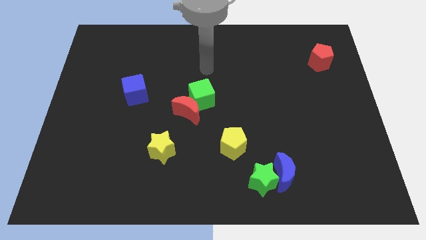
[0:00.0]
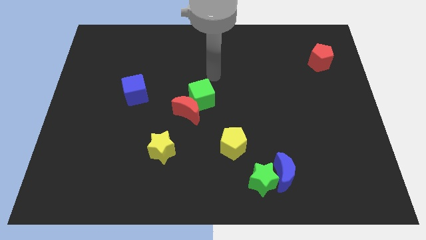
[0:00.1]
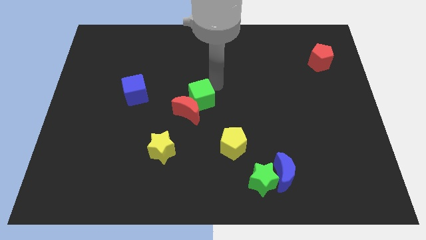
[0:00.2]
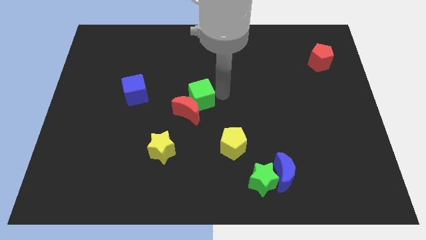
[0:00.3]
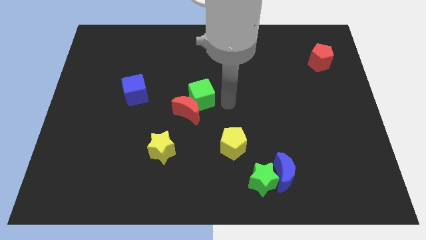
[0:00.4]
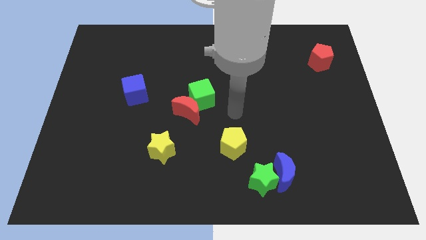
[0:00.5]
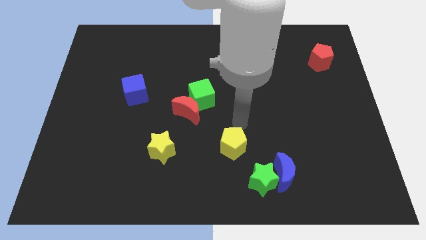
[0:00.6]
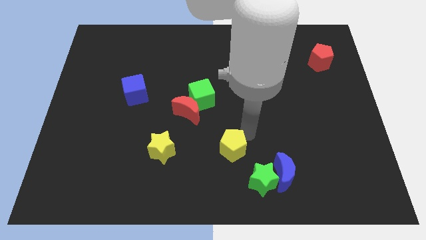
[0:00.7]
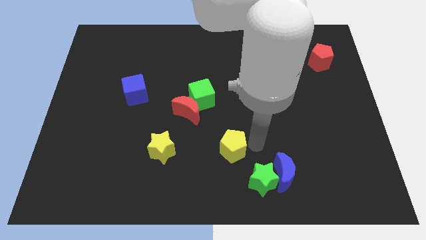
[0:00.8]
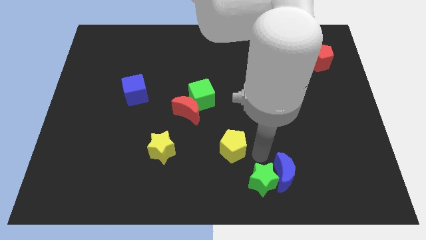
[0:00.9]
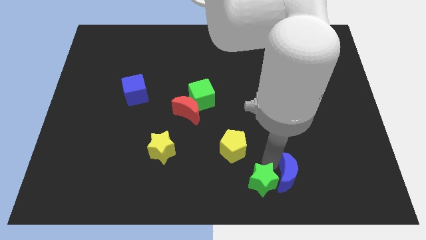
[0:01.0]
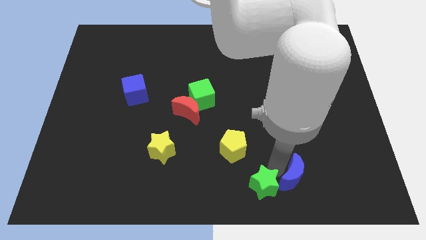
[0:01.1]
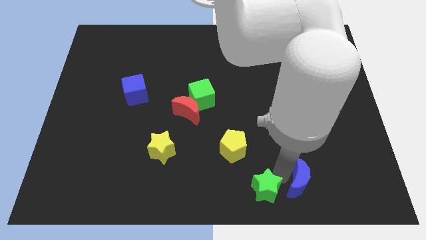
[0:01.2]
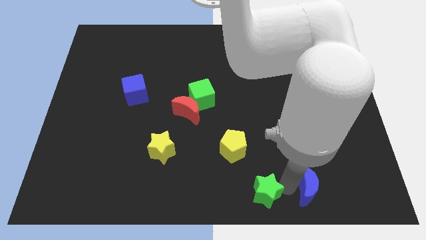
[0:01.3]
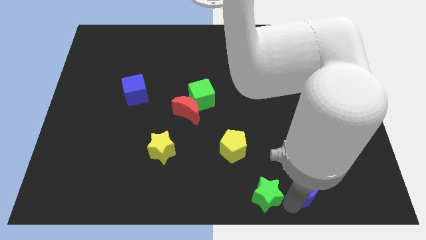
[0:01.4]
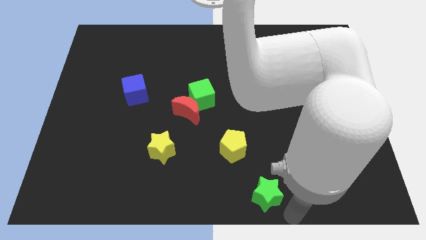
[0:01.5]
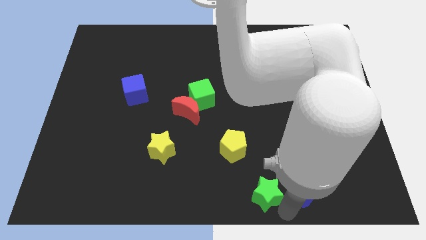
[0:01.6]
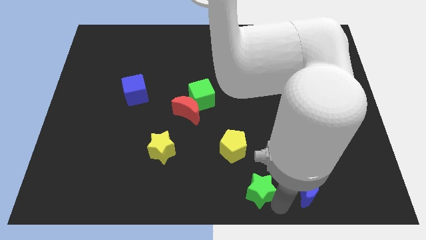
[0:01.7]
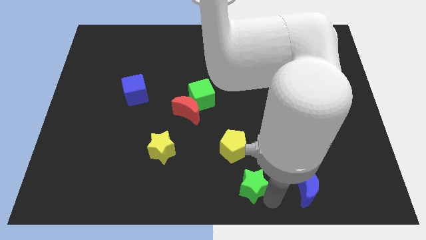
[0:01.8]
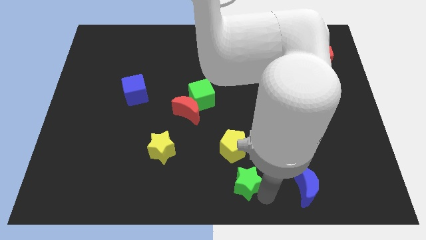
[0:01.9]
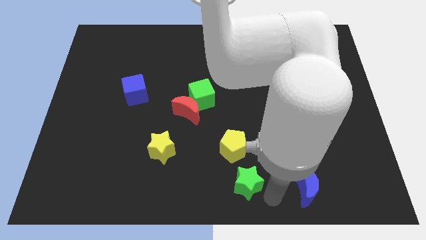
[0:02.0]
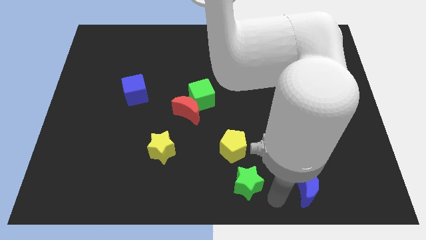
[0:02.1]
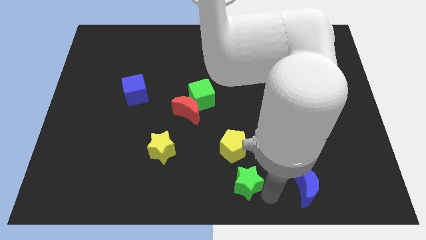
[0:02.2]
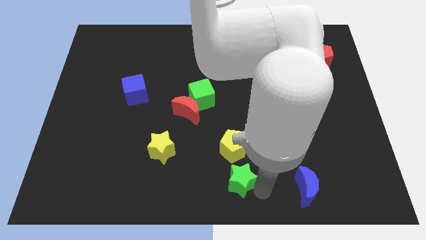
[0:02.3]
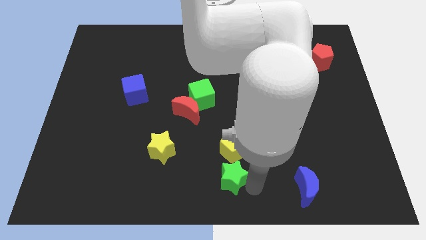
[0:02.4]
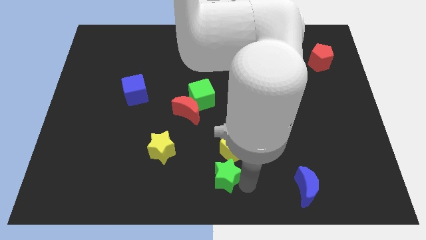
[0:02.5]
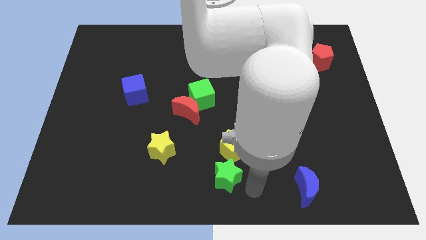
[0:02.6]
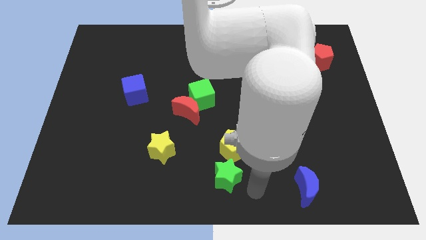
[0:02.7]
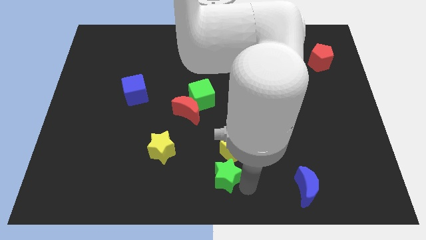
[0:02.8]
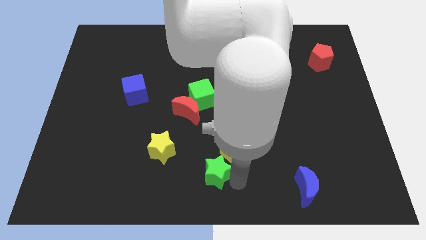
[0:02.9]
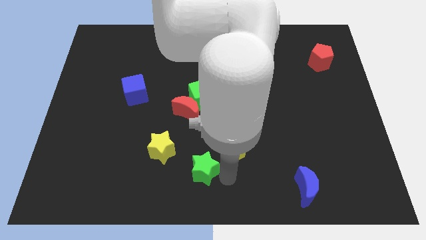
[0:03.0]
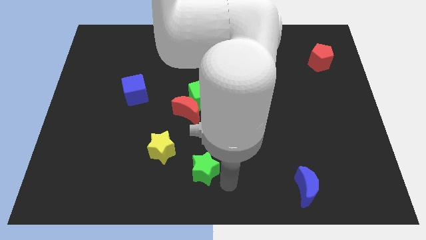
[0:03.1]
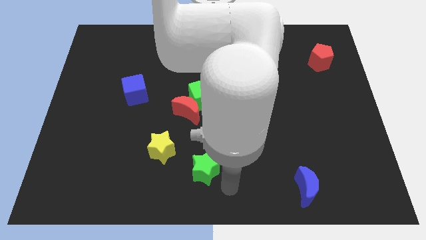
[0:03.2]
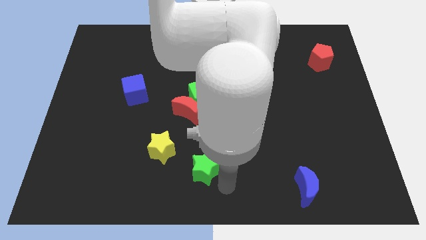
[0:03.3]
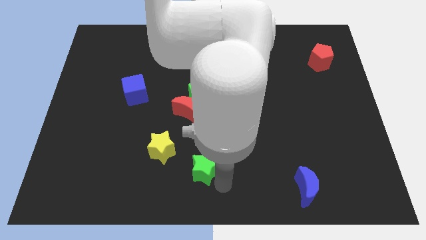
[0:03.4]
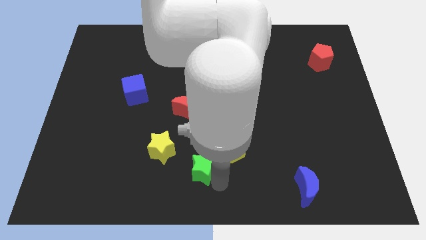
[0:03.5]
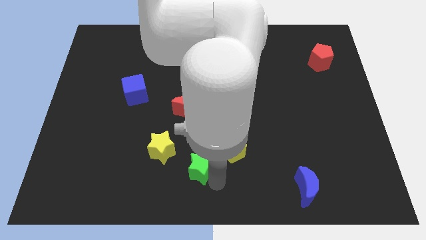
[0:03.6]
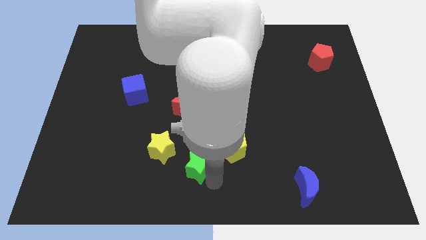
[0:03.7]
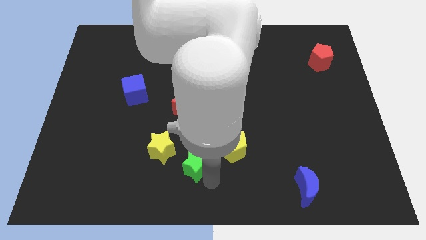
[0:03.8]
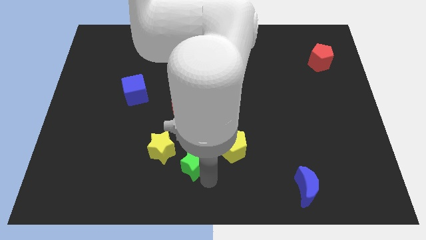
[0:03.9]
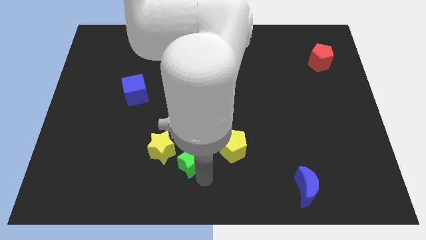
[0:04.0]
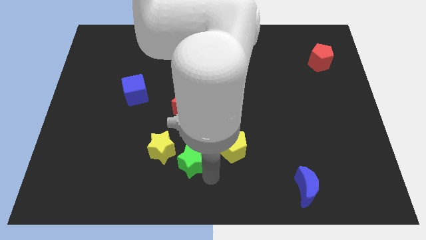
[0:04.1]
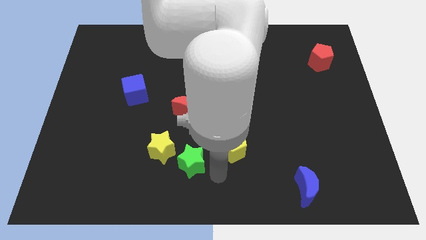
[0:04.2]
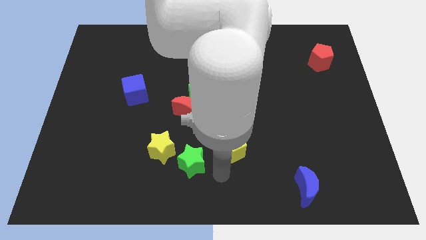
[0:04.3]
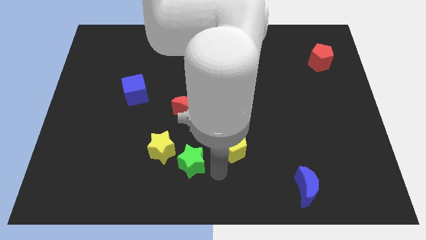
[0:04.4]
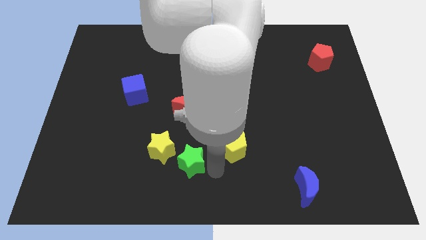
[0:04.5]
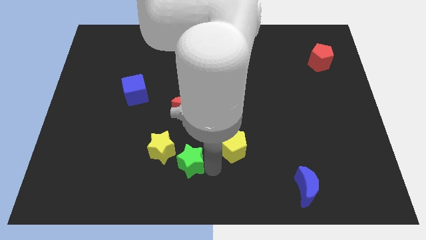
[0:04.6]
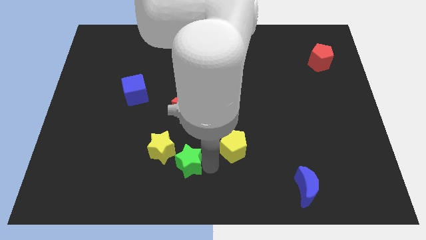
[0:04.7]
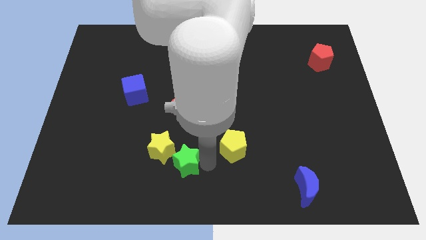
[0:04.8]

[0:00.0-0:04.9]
put the green star towards the yellow star

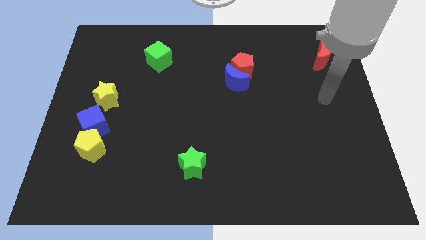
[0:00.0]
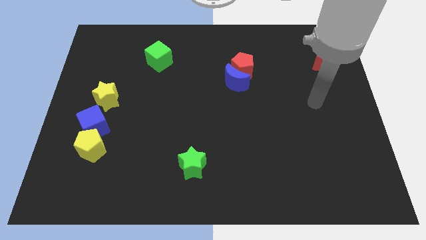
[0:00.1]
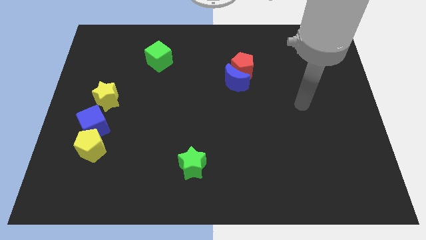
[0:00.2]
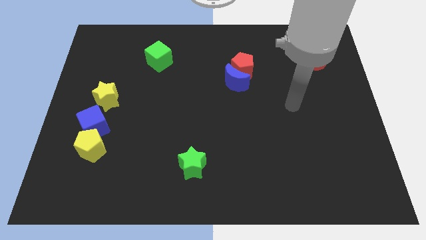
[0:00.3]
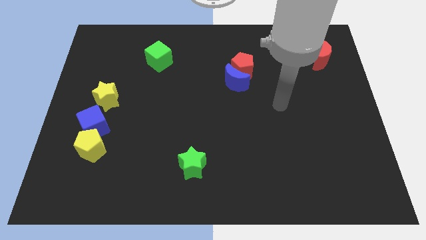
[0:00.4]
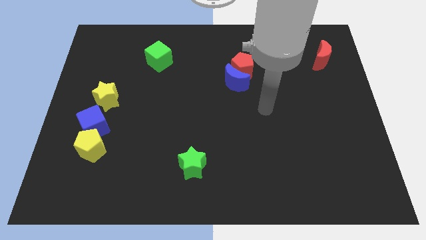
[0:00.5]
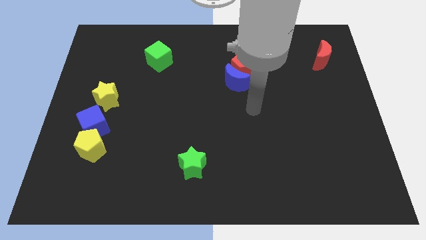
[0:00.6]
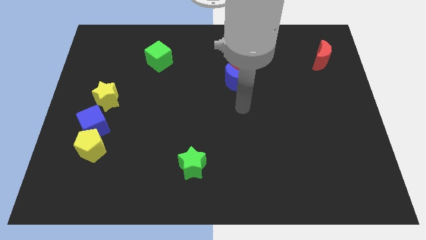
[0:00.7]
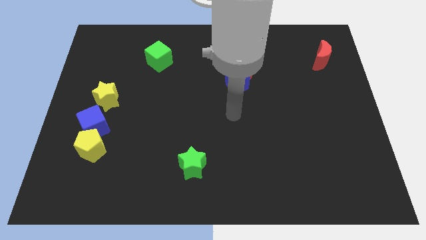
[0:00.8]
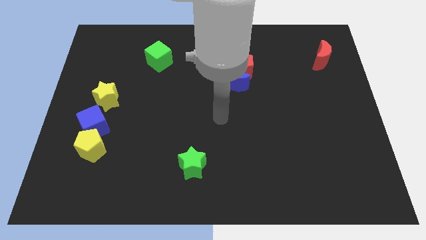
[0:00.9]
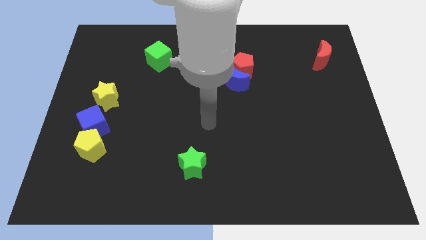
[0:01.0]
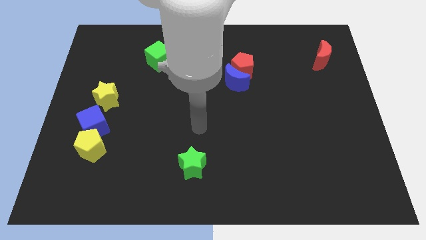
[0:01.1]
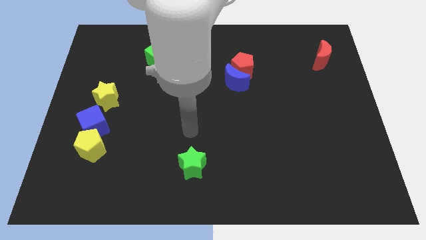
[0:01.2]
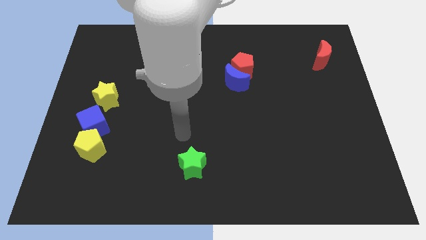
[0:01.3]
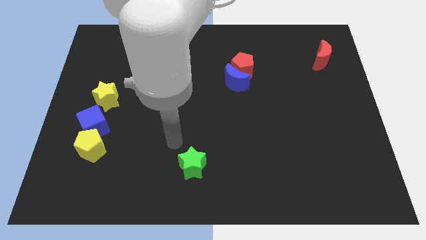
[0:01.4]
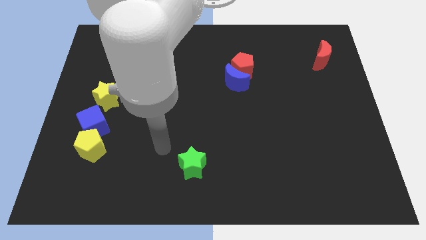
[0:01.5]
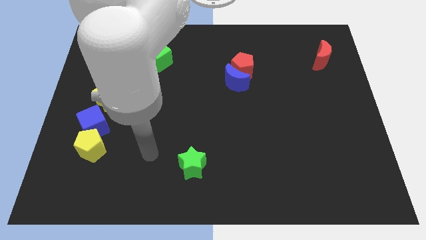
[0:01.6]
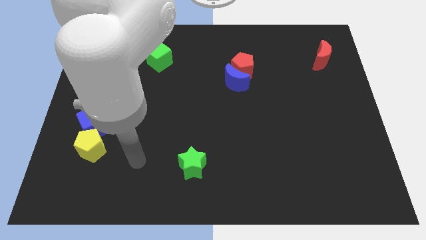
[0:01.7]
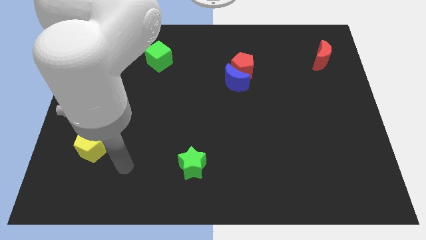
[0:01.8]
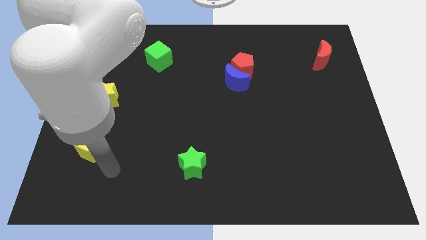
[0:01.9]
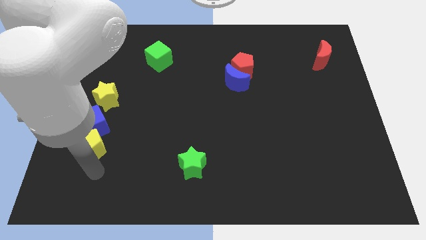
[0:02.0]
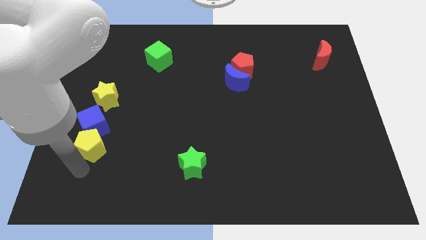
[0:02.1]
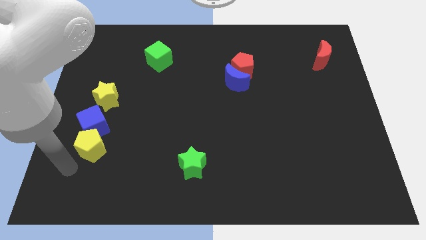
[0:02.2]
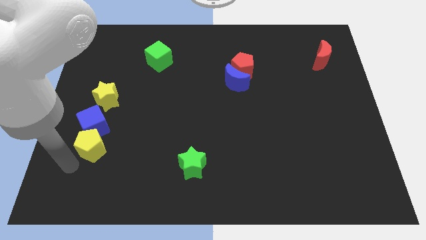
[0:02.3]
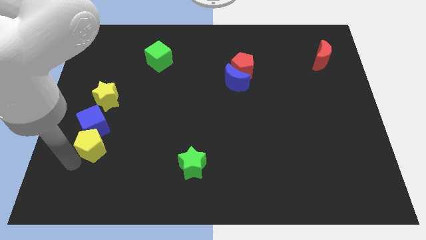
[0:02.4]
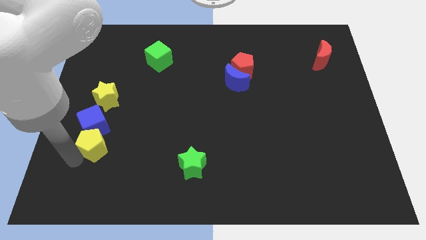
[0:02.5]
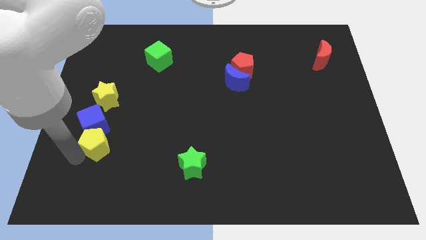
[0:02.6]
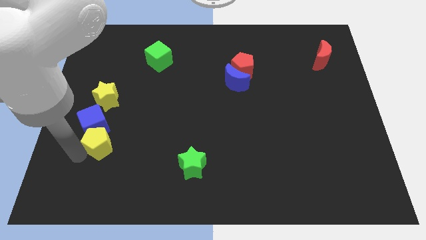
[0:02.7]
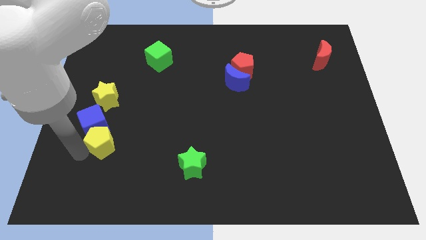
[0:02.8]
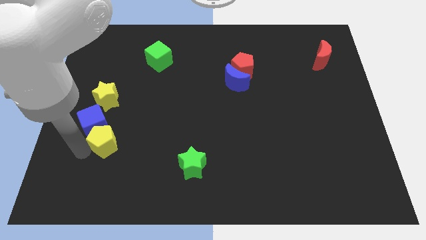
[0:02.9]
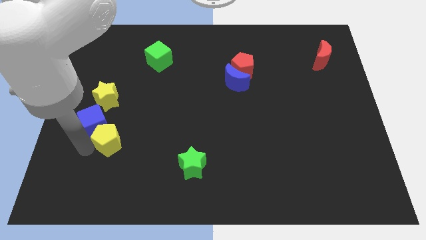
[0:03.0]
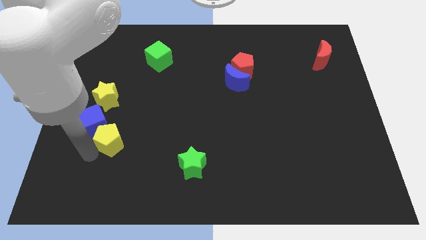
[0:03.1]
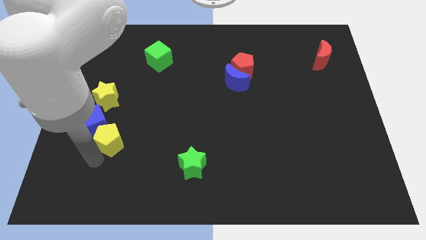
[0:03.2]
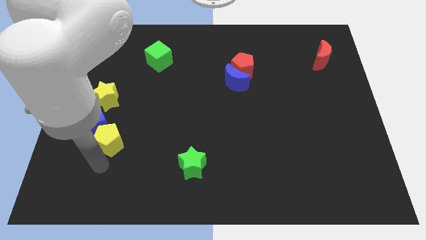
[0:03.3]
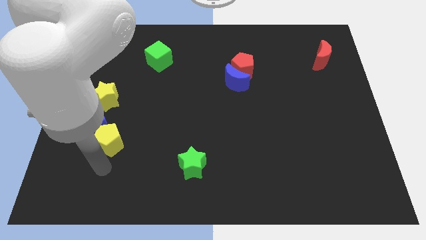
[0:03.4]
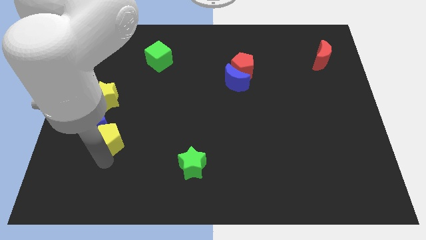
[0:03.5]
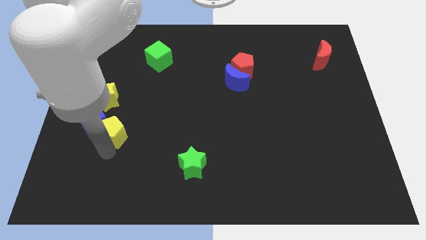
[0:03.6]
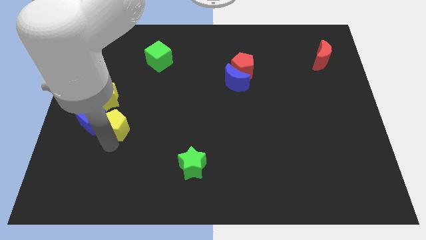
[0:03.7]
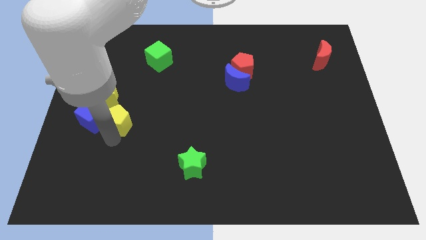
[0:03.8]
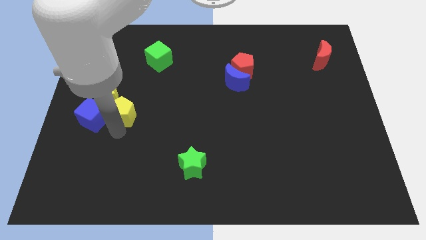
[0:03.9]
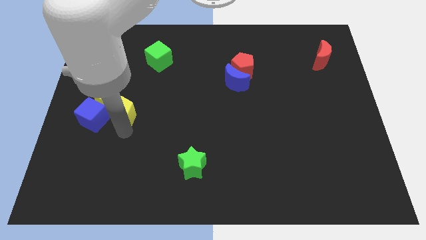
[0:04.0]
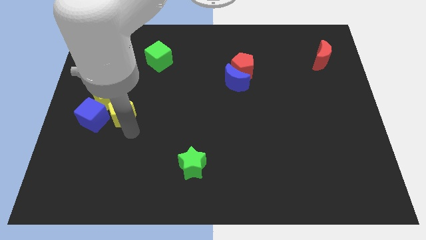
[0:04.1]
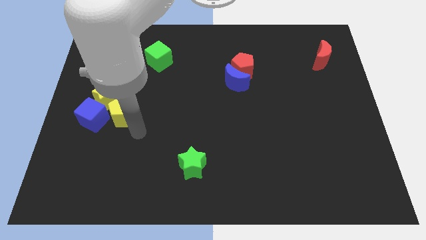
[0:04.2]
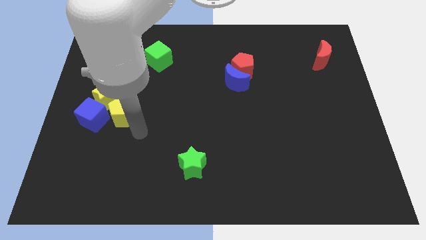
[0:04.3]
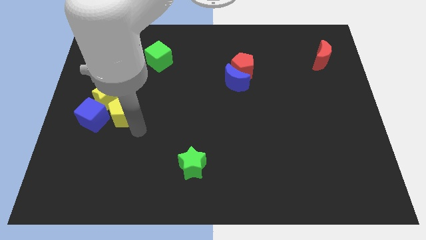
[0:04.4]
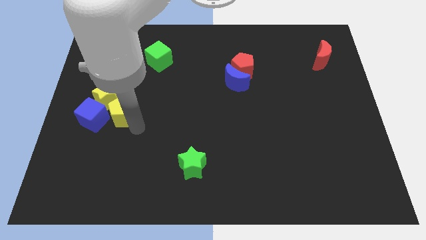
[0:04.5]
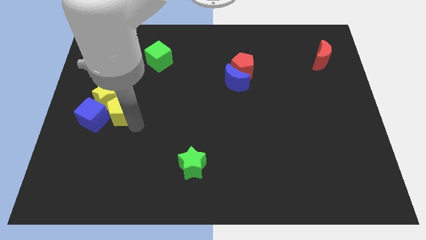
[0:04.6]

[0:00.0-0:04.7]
put the yellow pentagon next to the yellow star
